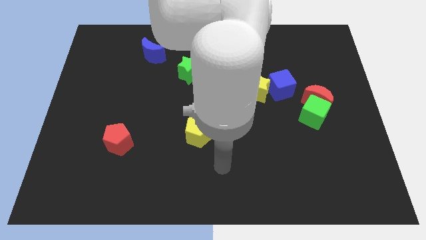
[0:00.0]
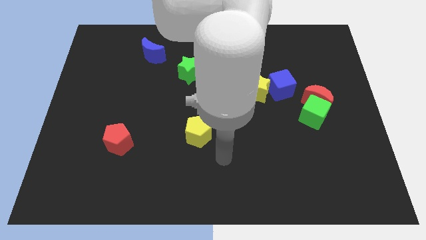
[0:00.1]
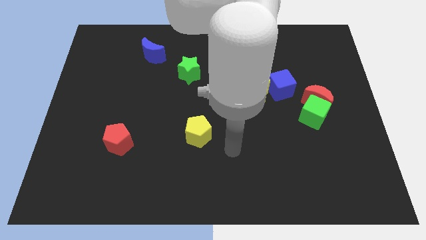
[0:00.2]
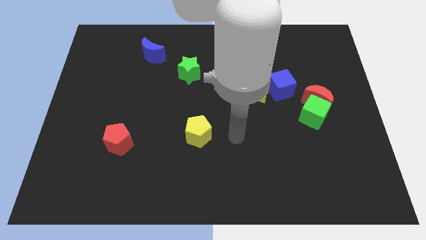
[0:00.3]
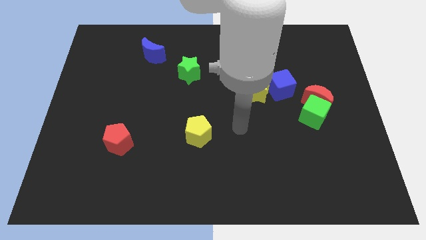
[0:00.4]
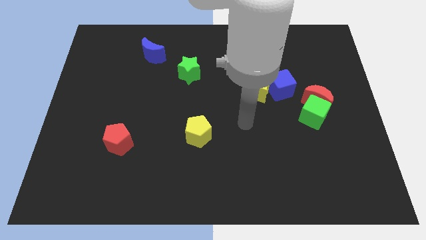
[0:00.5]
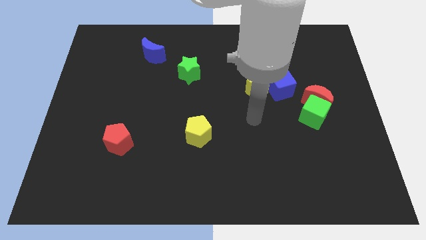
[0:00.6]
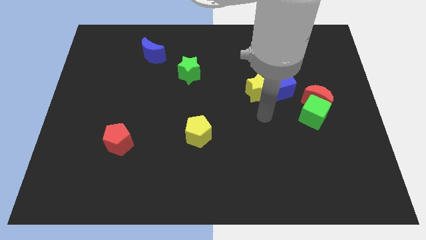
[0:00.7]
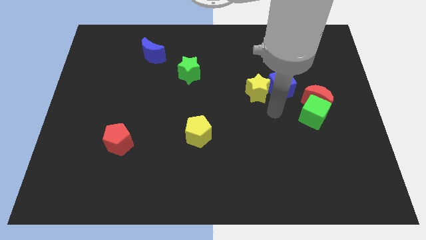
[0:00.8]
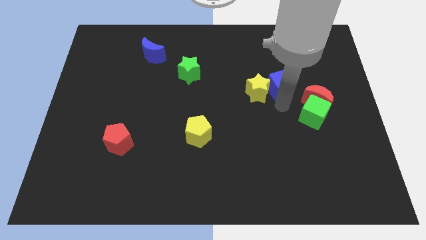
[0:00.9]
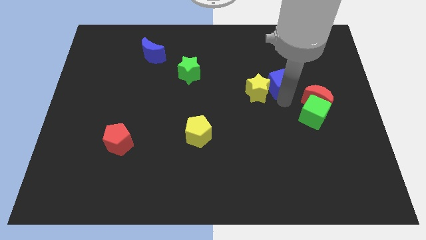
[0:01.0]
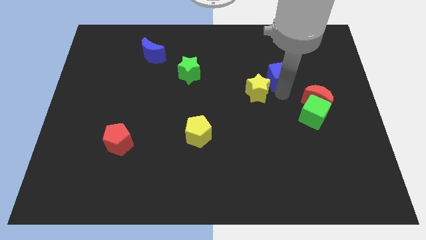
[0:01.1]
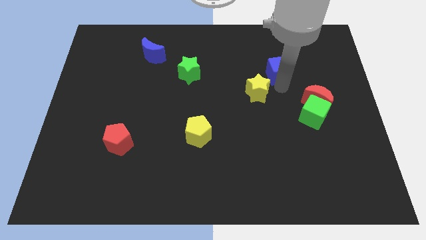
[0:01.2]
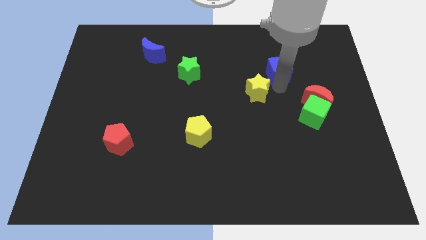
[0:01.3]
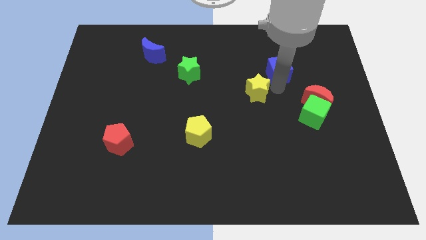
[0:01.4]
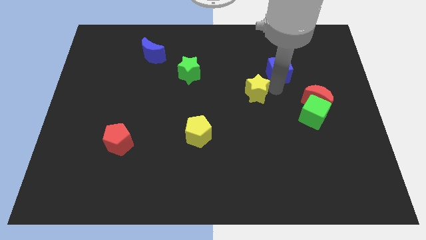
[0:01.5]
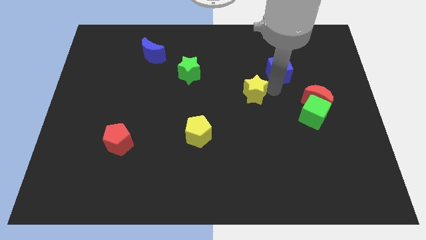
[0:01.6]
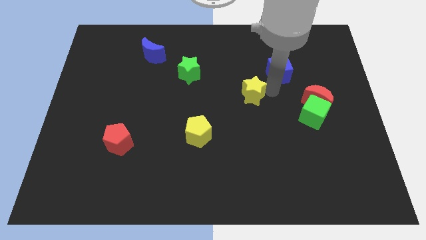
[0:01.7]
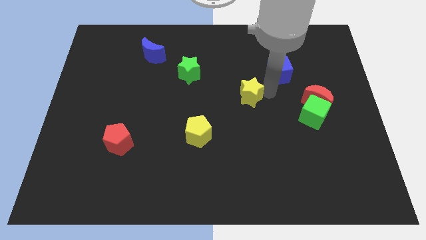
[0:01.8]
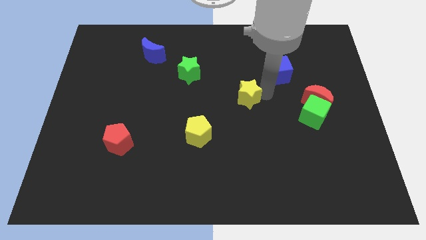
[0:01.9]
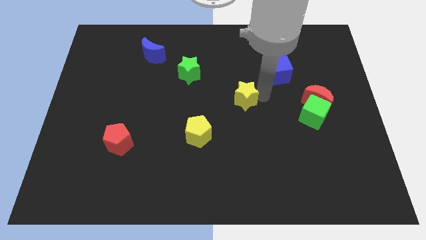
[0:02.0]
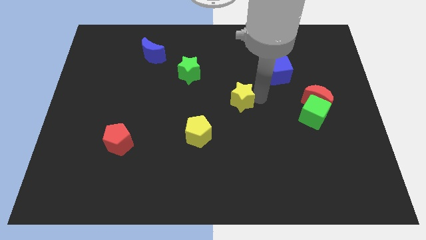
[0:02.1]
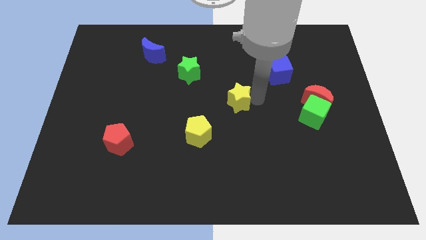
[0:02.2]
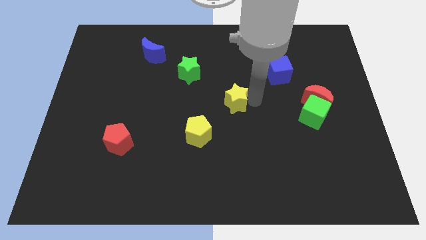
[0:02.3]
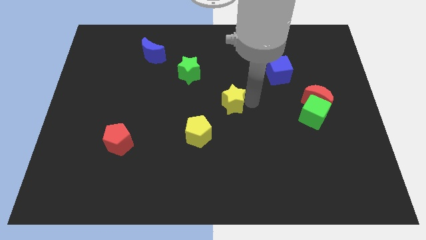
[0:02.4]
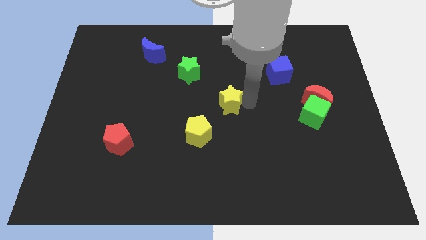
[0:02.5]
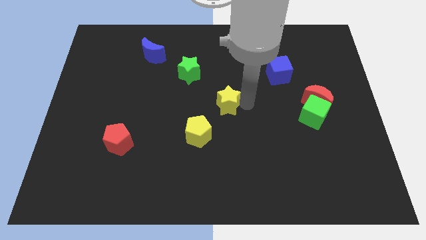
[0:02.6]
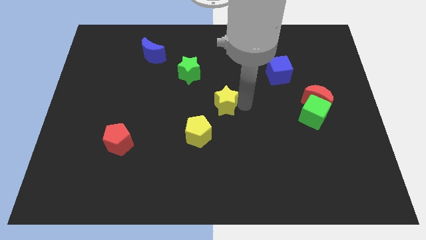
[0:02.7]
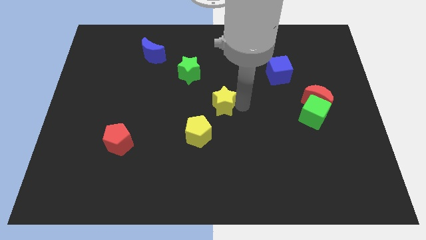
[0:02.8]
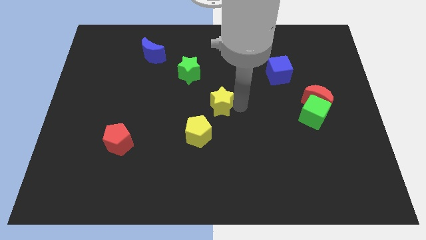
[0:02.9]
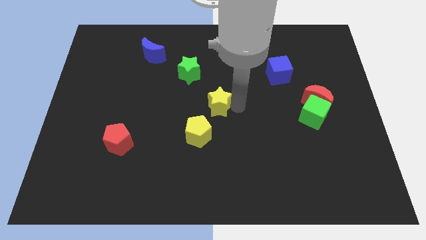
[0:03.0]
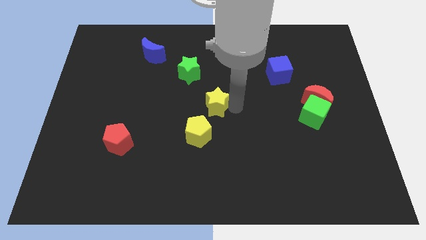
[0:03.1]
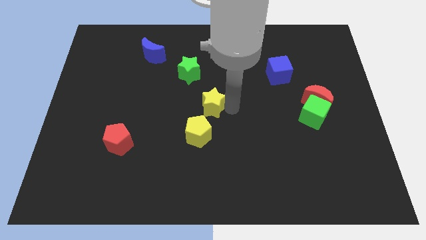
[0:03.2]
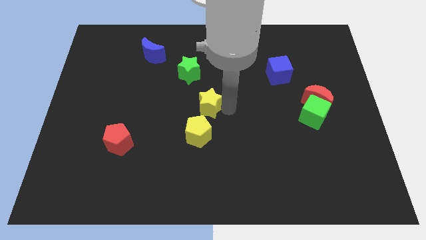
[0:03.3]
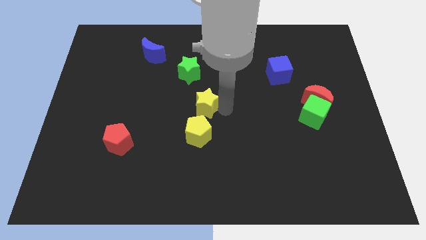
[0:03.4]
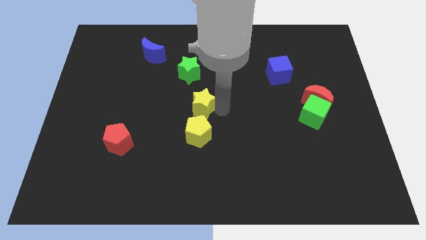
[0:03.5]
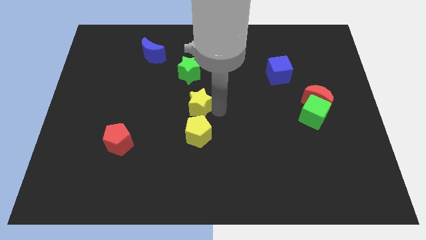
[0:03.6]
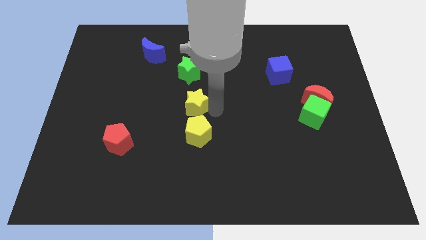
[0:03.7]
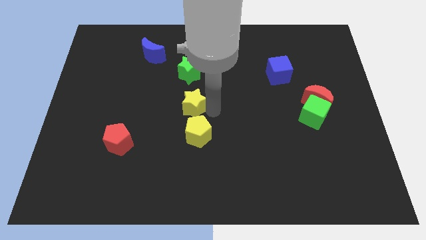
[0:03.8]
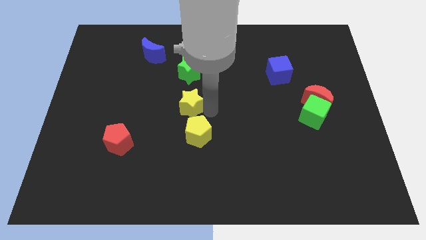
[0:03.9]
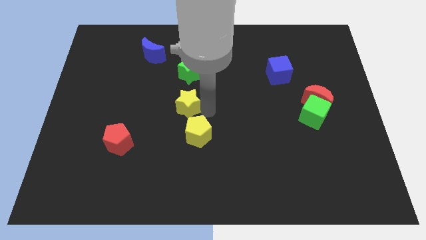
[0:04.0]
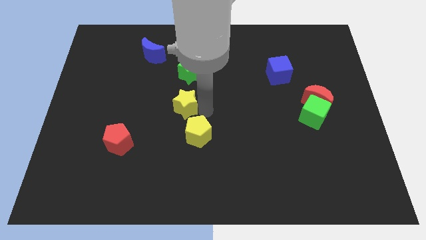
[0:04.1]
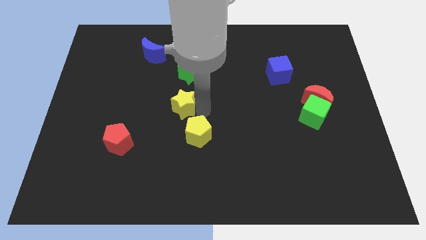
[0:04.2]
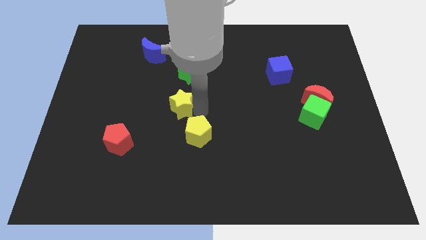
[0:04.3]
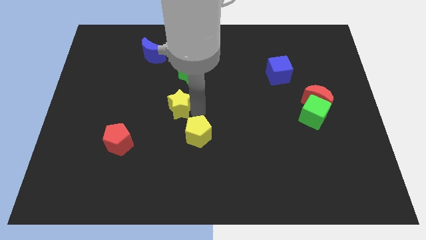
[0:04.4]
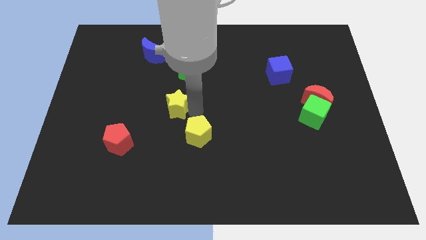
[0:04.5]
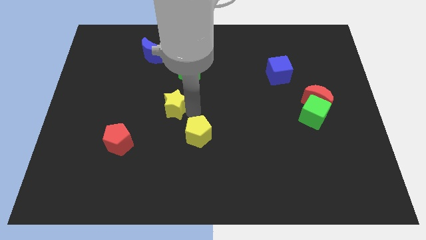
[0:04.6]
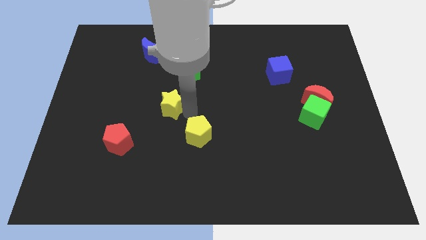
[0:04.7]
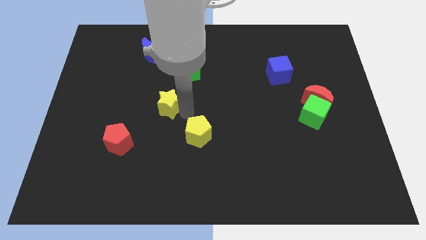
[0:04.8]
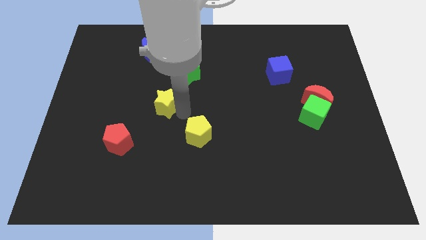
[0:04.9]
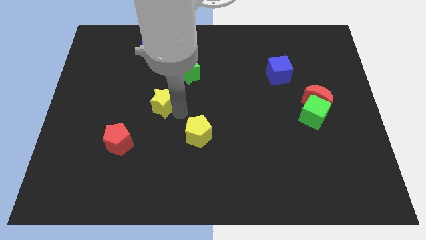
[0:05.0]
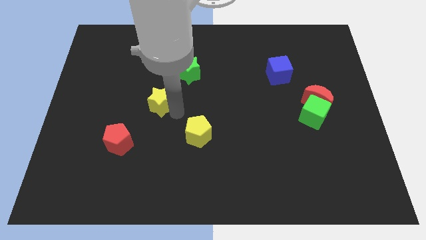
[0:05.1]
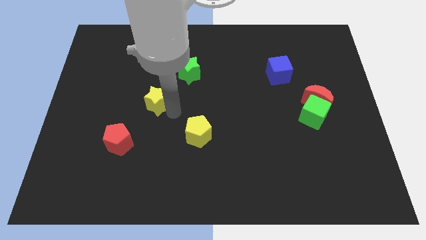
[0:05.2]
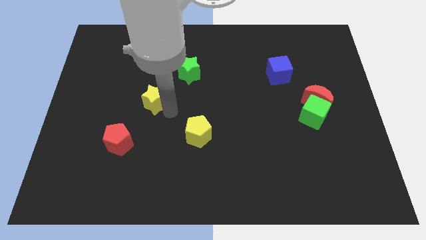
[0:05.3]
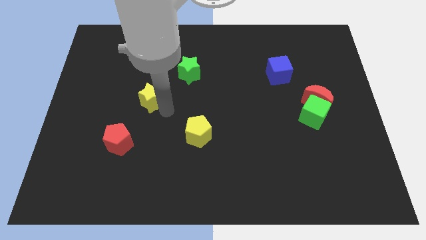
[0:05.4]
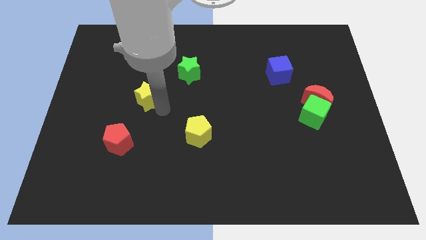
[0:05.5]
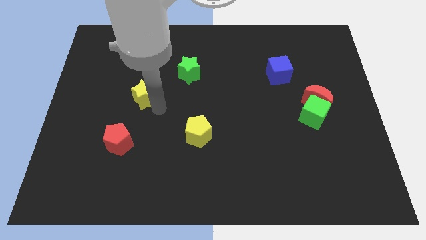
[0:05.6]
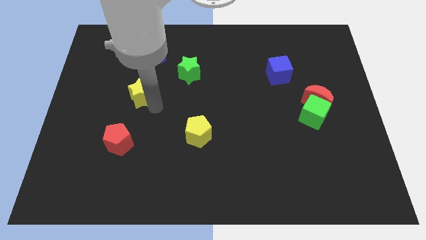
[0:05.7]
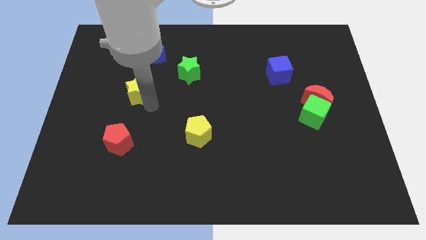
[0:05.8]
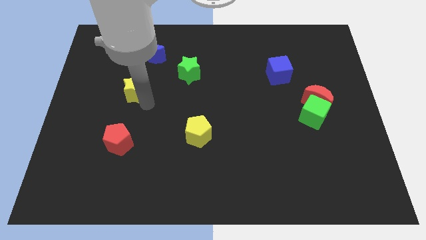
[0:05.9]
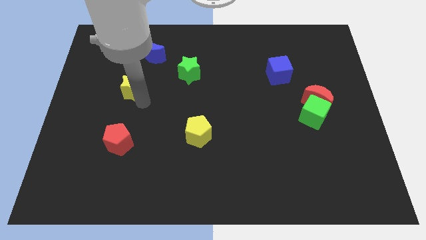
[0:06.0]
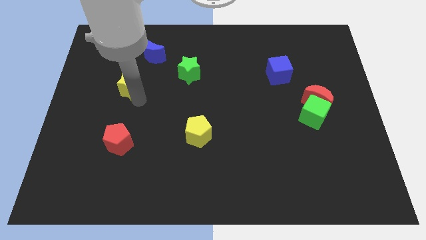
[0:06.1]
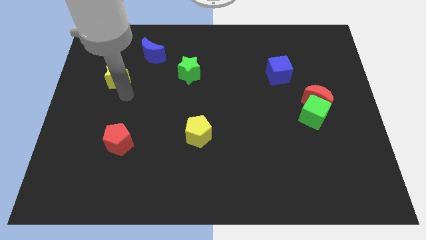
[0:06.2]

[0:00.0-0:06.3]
put the yellow star to the bottom left of the blue moon

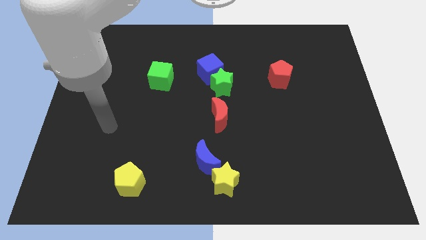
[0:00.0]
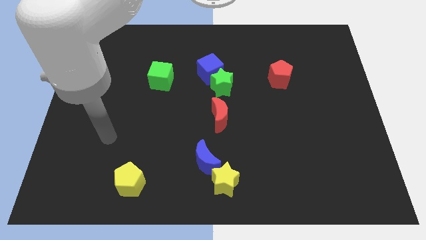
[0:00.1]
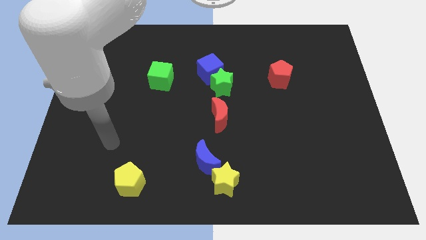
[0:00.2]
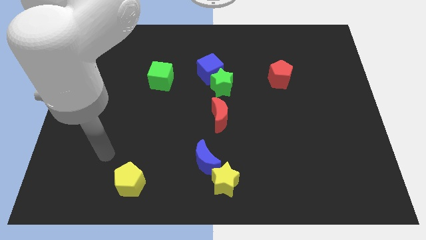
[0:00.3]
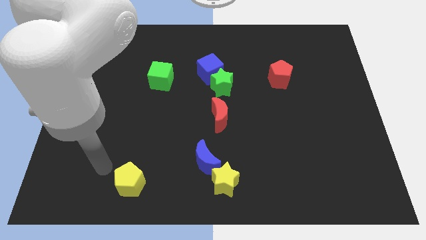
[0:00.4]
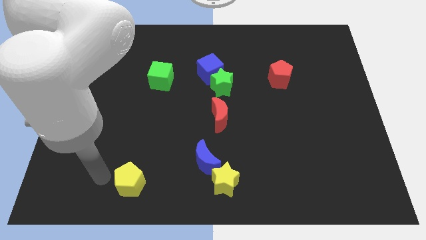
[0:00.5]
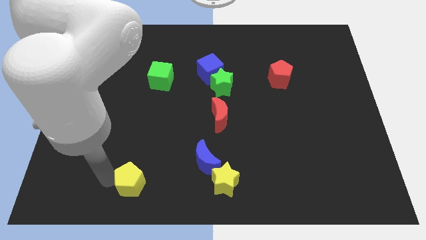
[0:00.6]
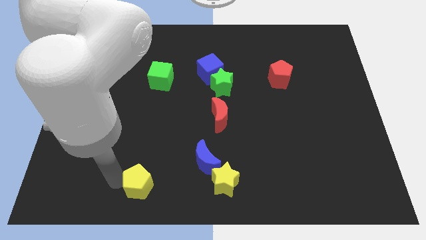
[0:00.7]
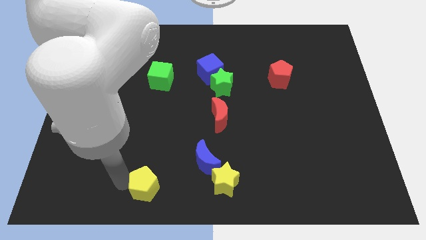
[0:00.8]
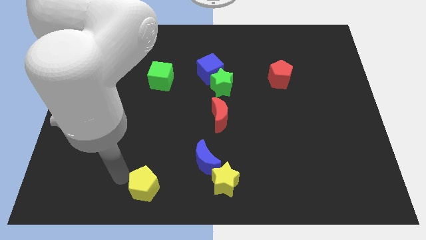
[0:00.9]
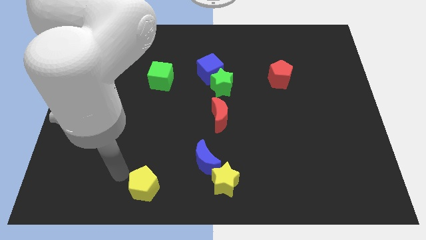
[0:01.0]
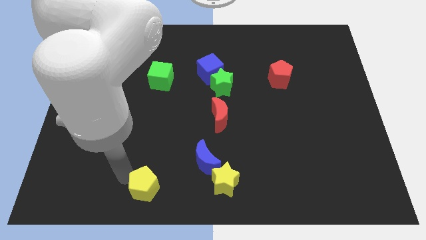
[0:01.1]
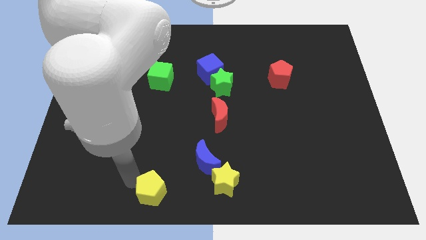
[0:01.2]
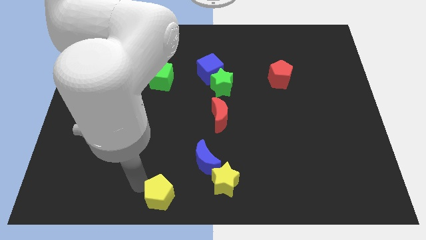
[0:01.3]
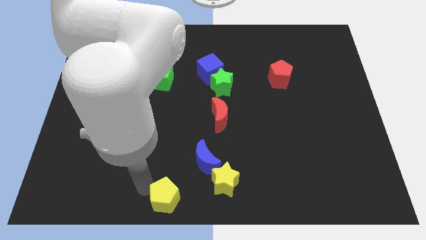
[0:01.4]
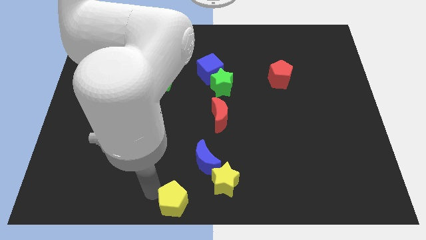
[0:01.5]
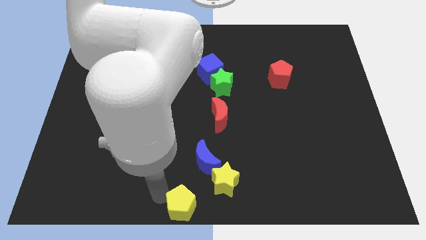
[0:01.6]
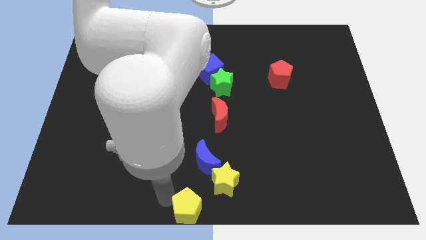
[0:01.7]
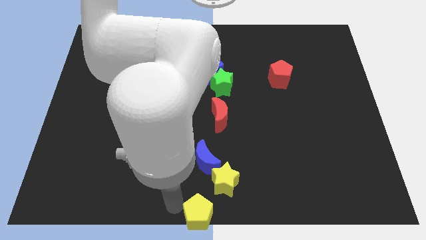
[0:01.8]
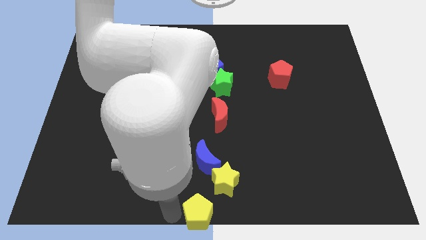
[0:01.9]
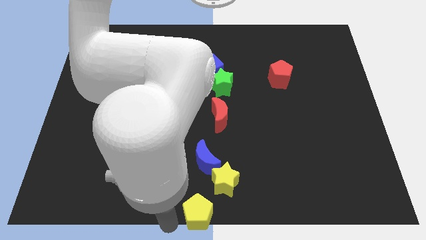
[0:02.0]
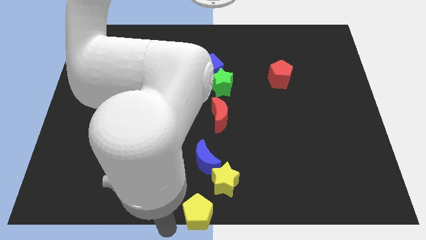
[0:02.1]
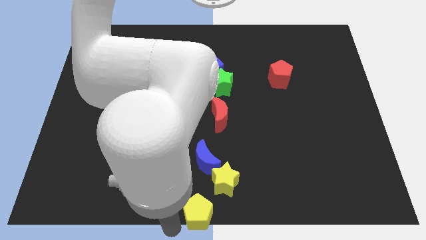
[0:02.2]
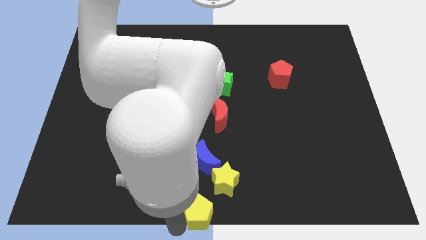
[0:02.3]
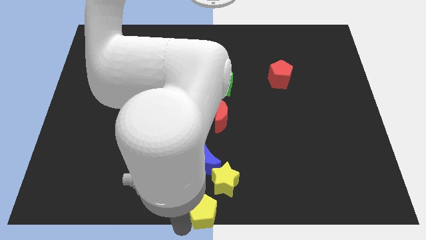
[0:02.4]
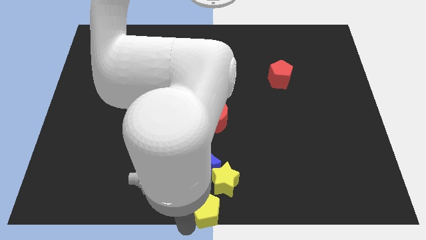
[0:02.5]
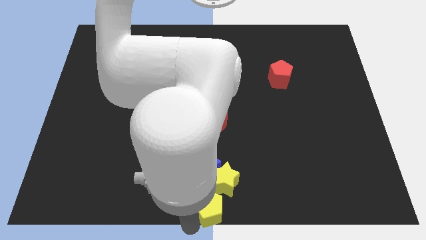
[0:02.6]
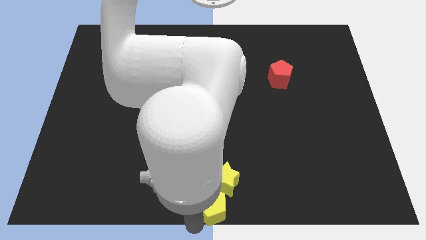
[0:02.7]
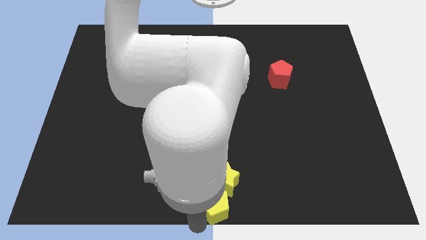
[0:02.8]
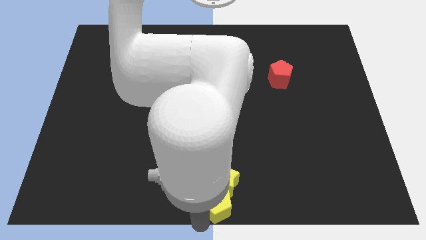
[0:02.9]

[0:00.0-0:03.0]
slide the yellow pentagon diagonally down and to the right of the blue moon
